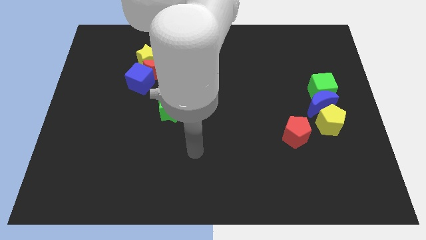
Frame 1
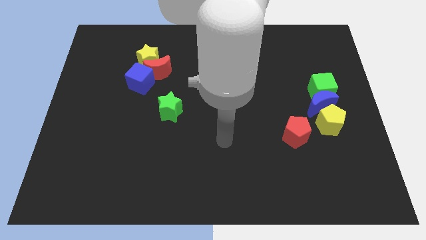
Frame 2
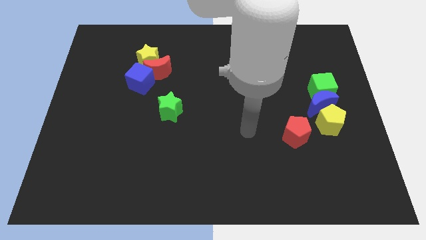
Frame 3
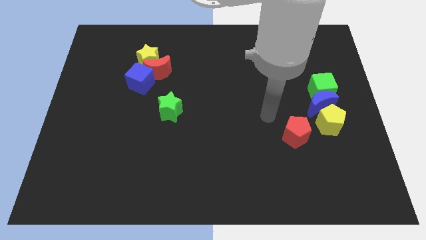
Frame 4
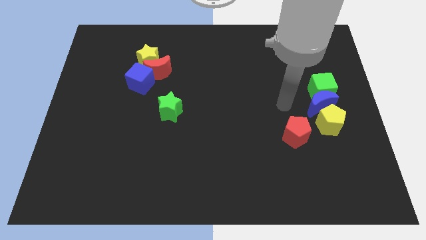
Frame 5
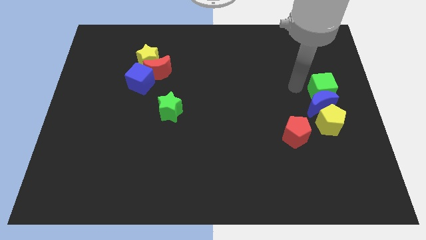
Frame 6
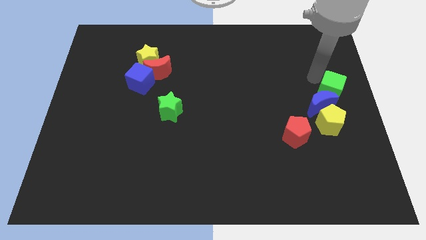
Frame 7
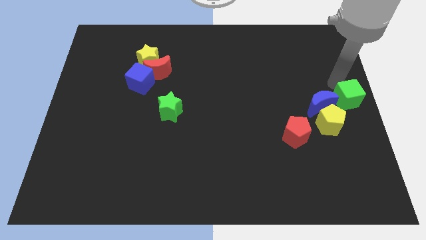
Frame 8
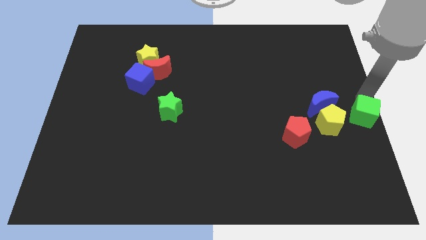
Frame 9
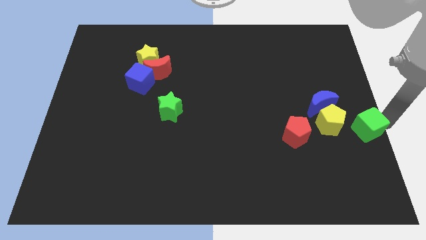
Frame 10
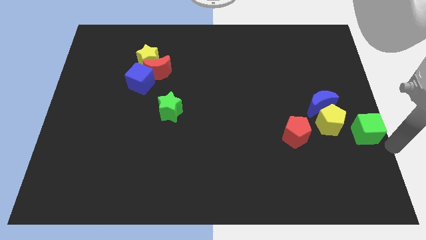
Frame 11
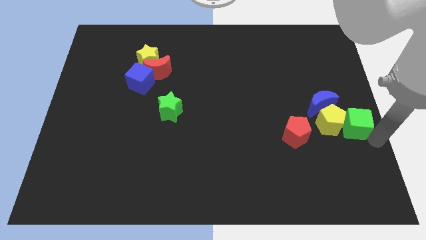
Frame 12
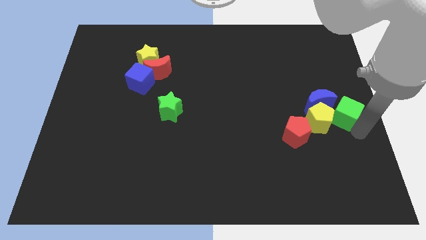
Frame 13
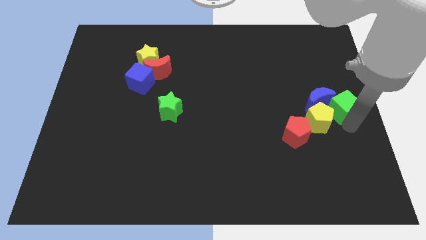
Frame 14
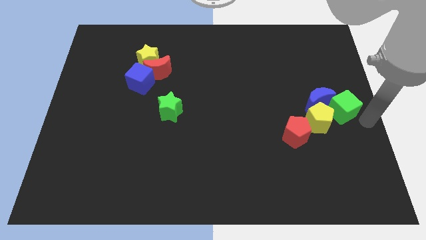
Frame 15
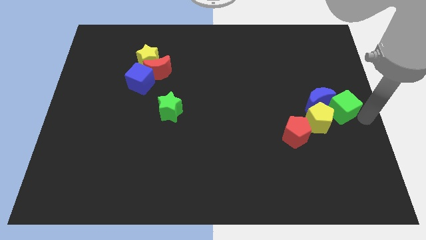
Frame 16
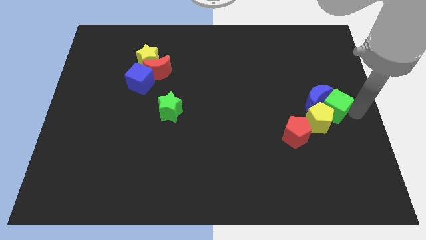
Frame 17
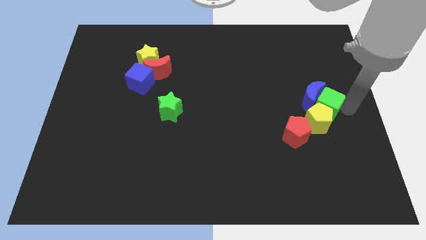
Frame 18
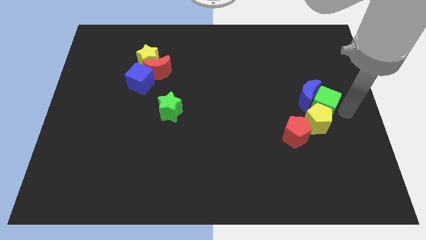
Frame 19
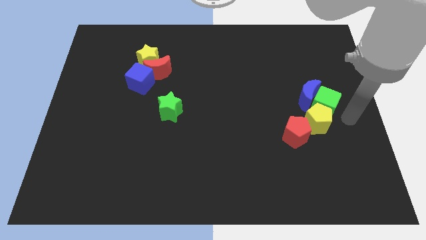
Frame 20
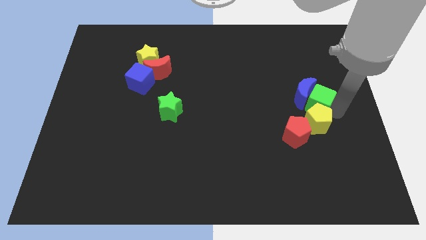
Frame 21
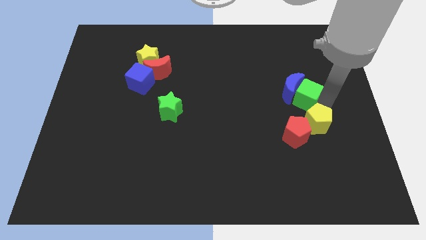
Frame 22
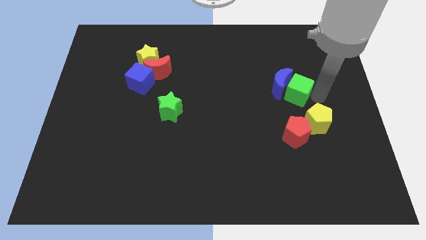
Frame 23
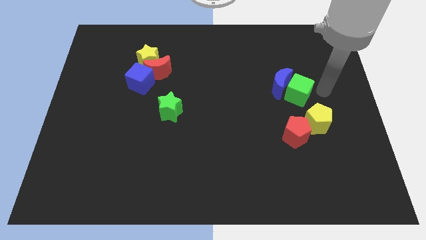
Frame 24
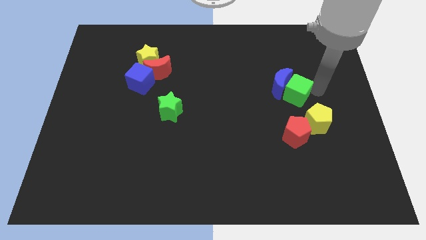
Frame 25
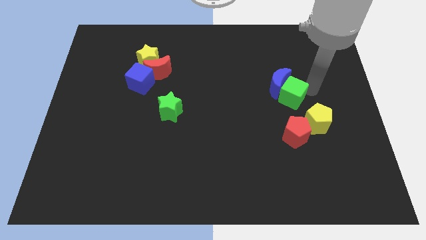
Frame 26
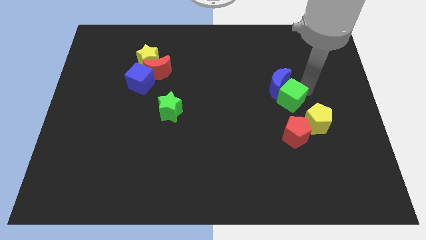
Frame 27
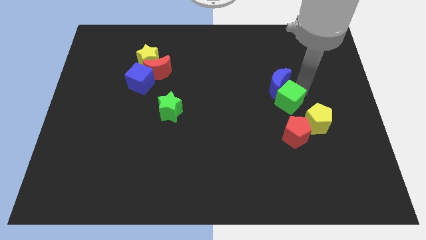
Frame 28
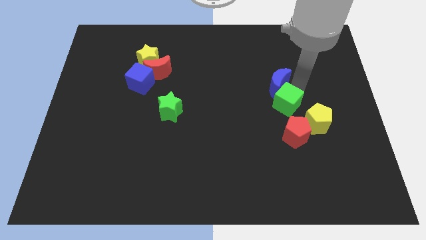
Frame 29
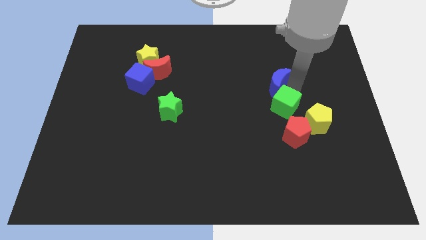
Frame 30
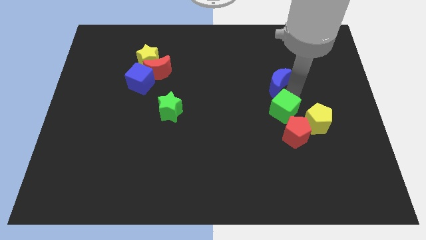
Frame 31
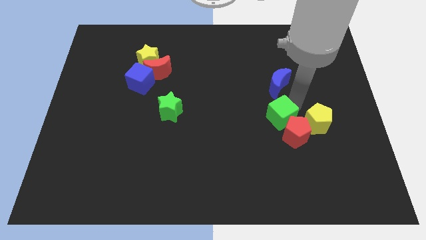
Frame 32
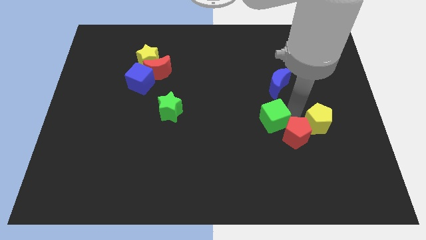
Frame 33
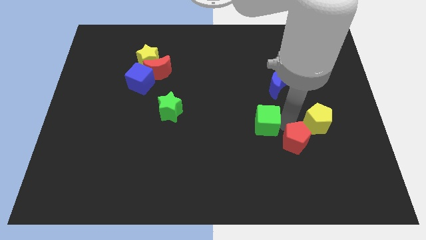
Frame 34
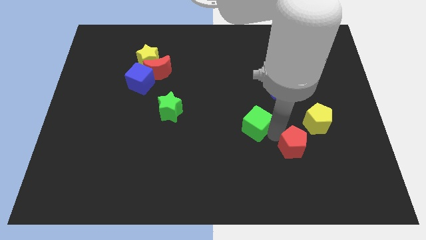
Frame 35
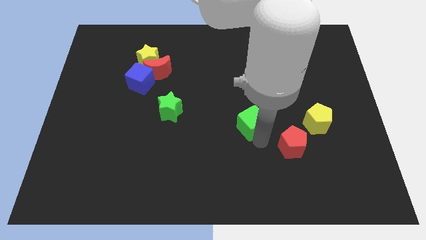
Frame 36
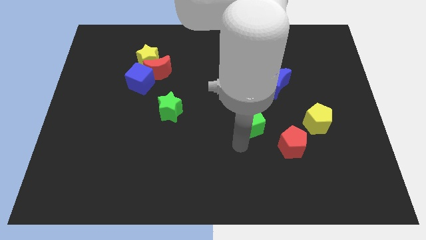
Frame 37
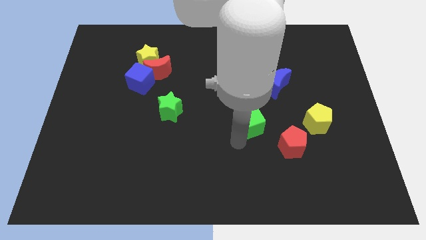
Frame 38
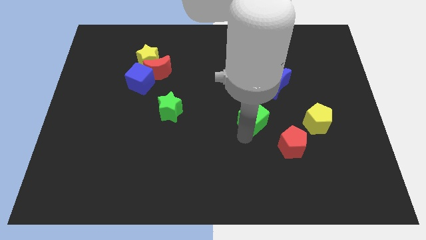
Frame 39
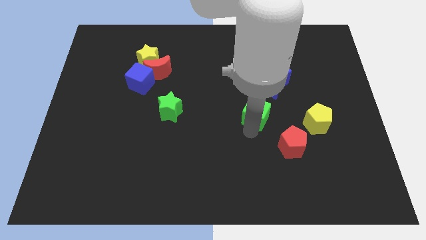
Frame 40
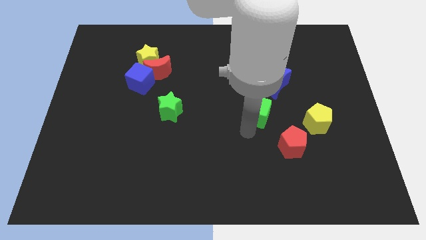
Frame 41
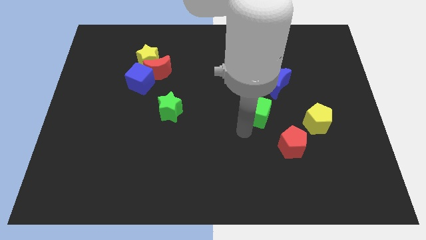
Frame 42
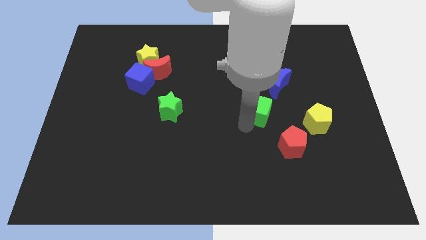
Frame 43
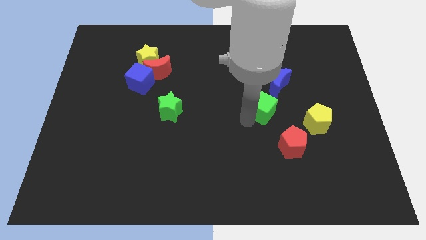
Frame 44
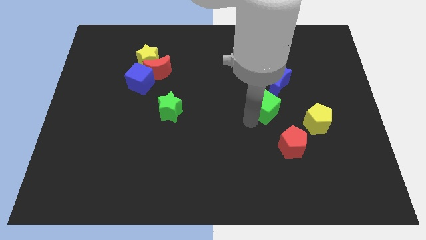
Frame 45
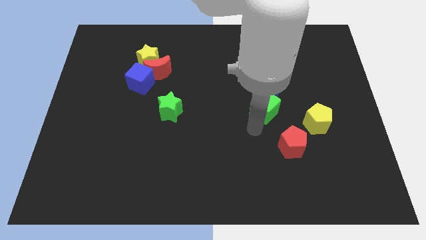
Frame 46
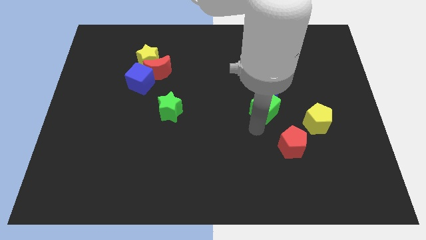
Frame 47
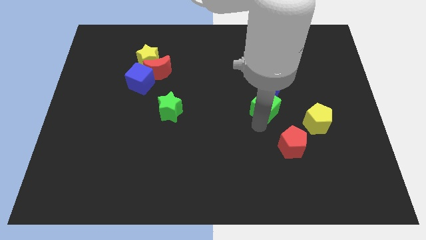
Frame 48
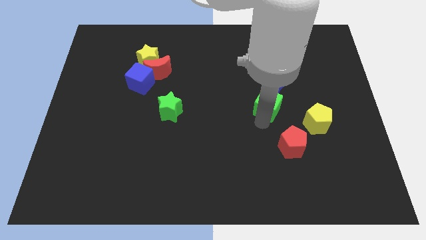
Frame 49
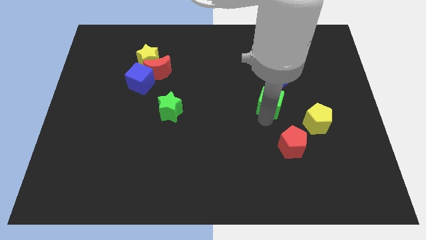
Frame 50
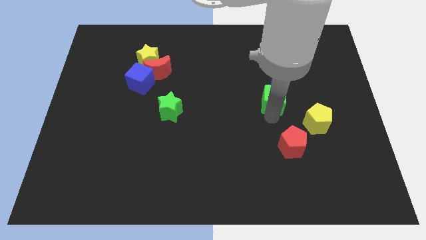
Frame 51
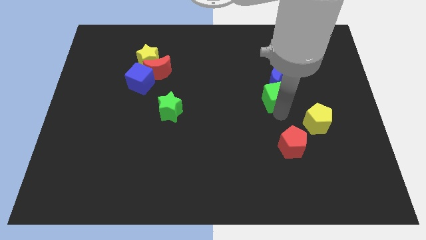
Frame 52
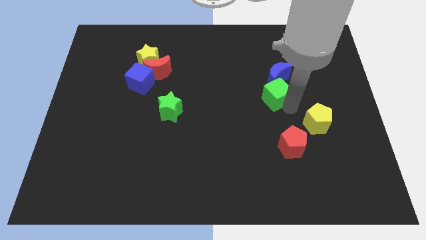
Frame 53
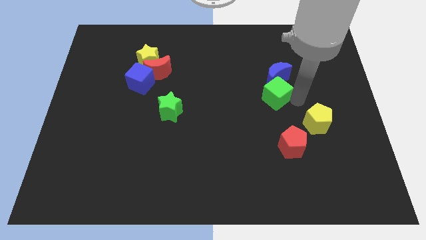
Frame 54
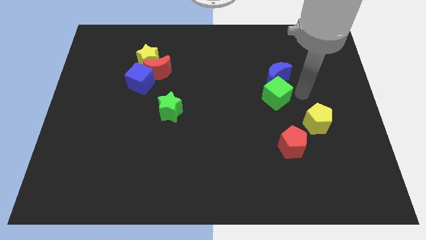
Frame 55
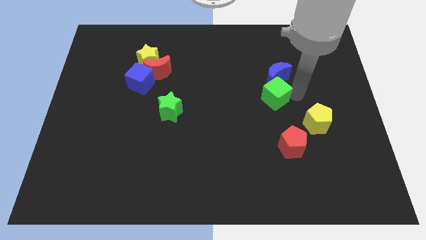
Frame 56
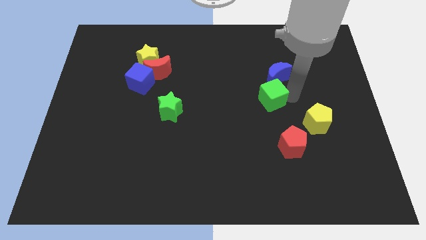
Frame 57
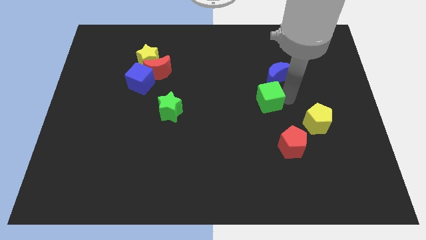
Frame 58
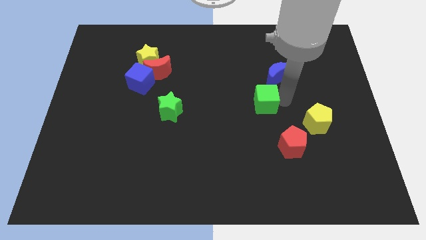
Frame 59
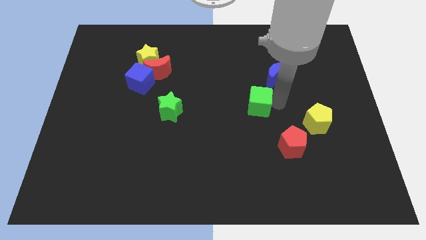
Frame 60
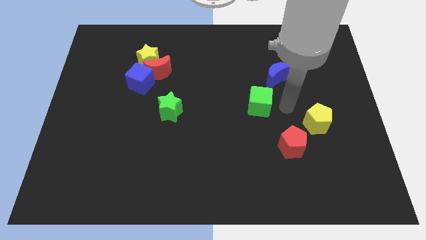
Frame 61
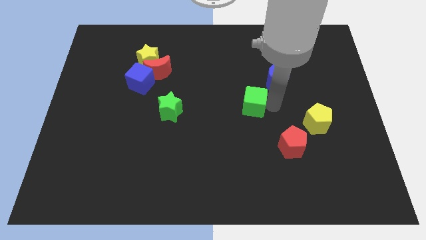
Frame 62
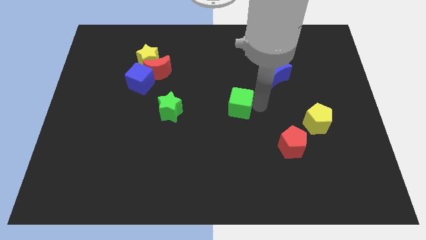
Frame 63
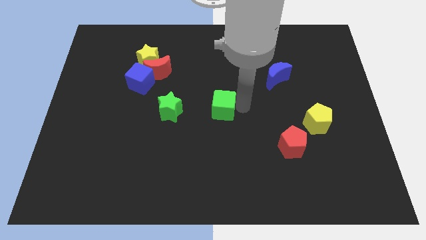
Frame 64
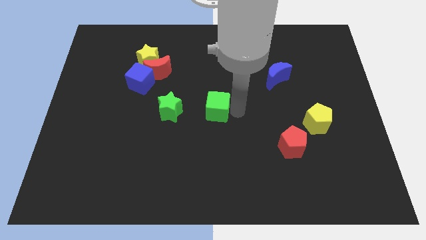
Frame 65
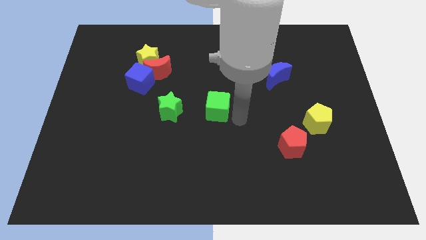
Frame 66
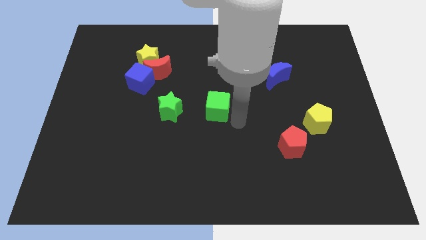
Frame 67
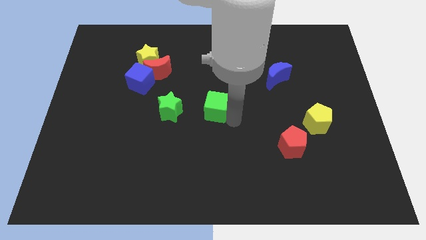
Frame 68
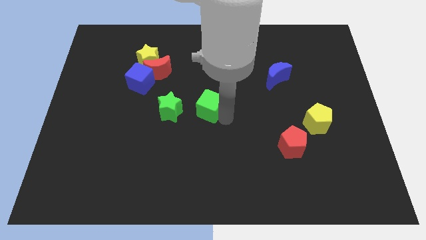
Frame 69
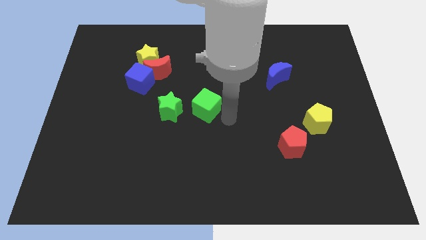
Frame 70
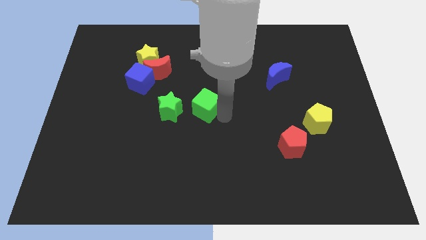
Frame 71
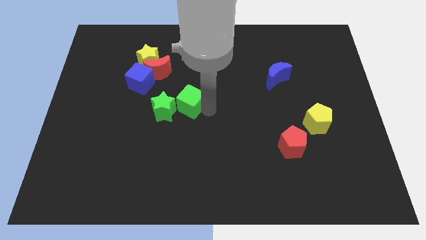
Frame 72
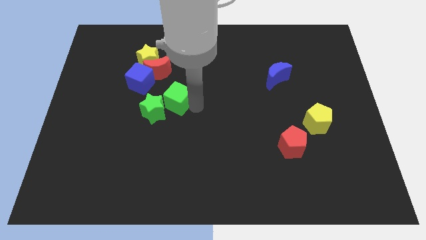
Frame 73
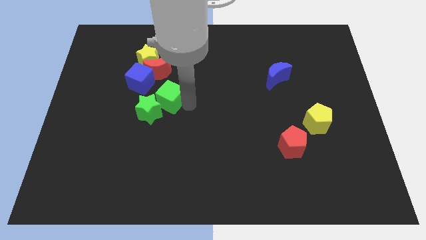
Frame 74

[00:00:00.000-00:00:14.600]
slide the green cube to the bottom side of the red moon
